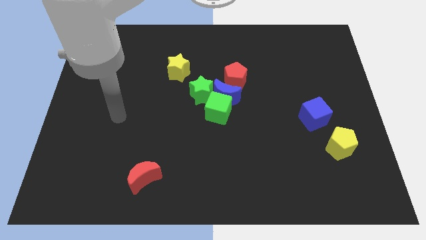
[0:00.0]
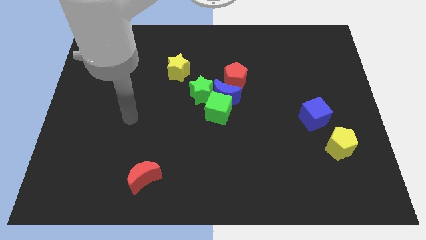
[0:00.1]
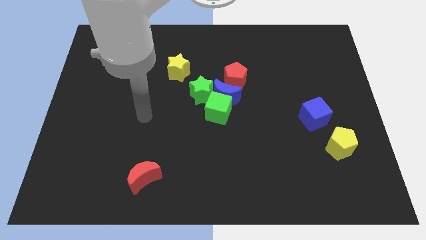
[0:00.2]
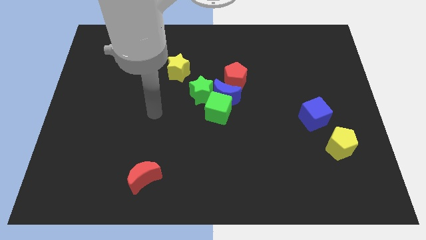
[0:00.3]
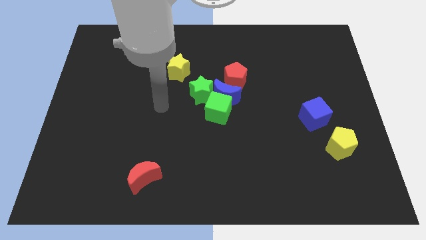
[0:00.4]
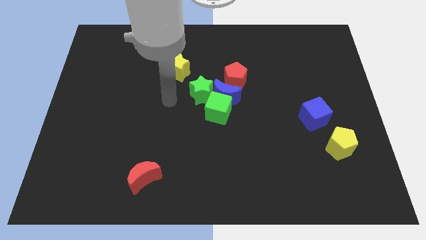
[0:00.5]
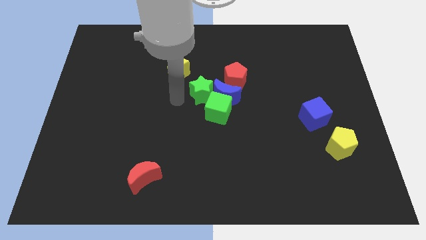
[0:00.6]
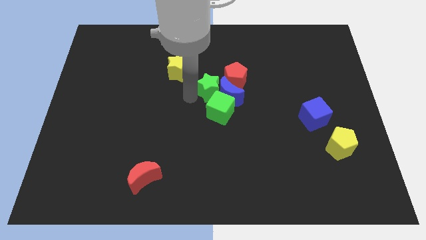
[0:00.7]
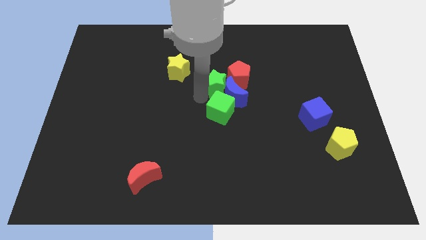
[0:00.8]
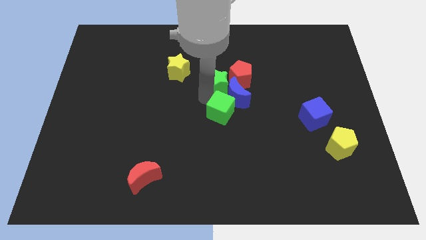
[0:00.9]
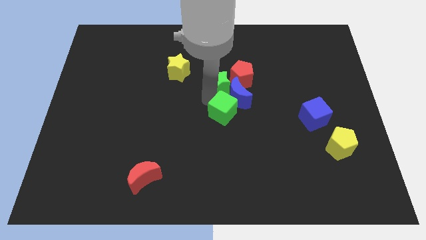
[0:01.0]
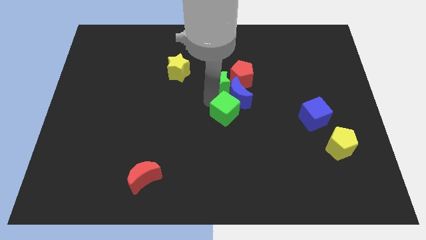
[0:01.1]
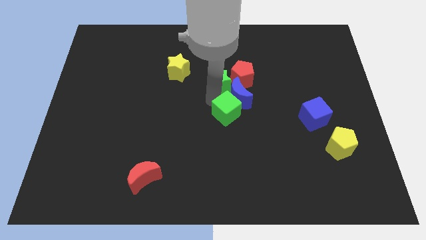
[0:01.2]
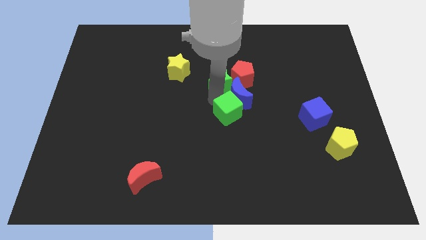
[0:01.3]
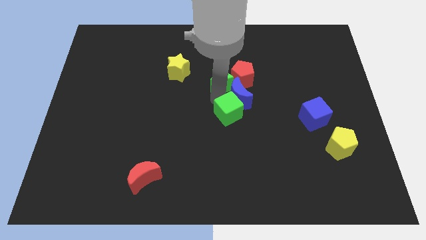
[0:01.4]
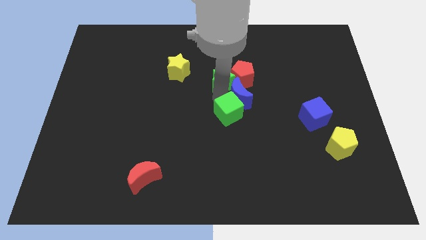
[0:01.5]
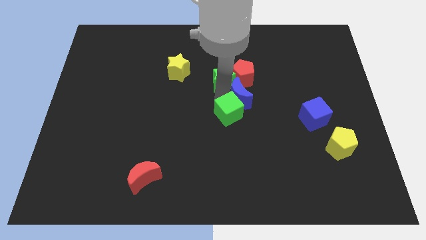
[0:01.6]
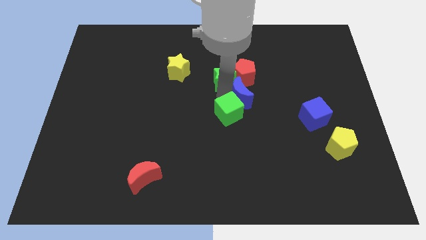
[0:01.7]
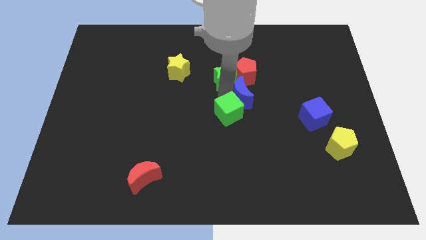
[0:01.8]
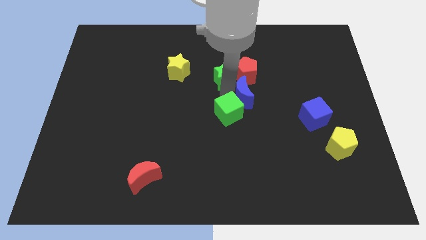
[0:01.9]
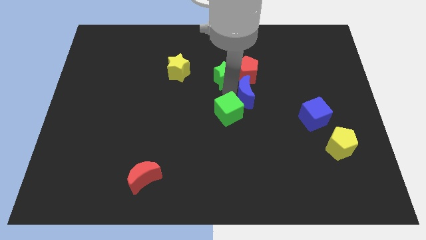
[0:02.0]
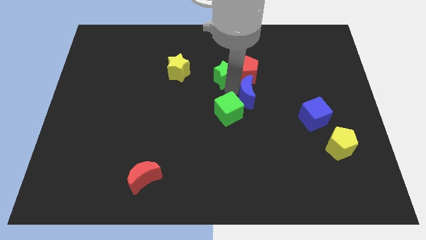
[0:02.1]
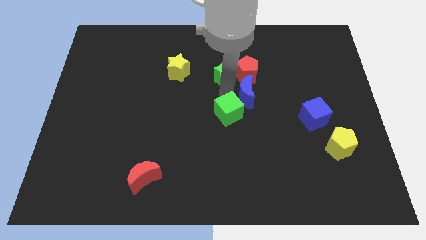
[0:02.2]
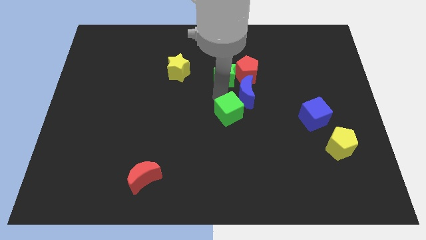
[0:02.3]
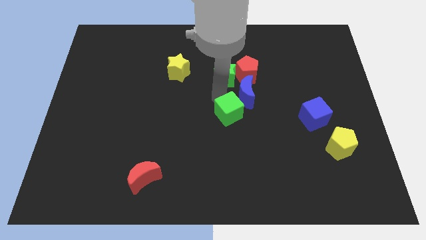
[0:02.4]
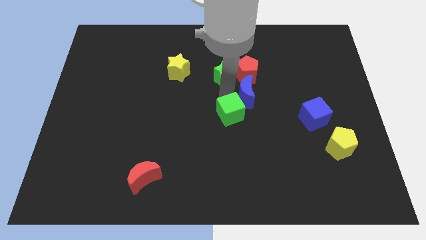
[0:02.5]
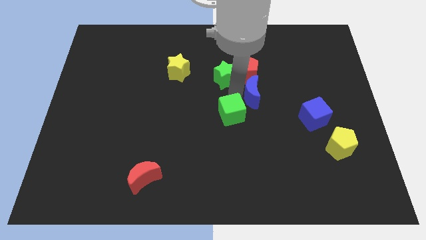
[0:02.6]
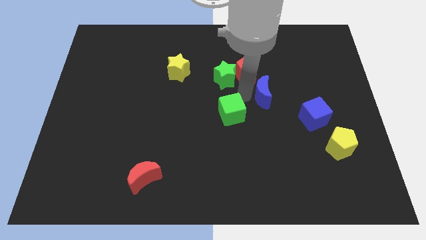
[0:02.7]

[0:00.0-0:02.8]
slightly slide the blue moon to the right

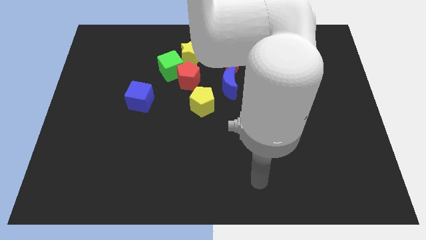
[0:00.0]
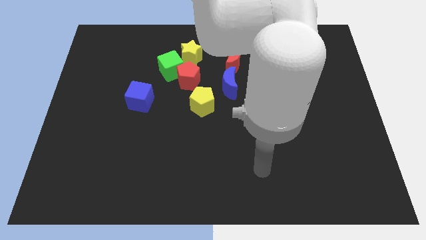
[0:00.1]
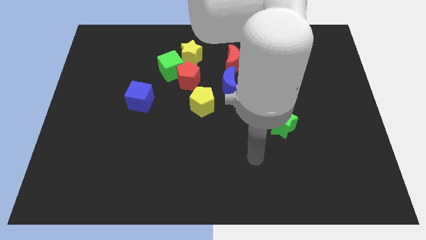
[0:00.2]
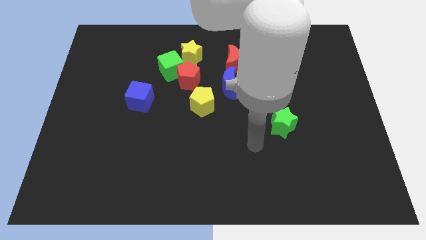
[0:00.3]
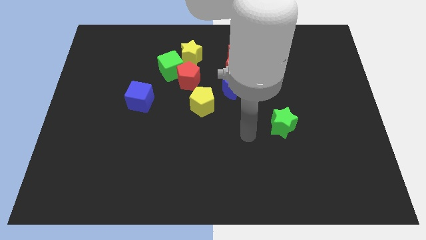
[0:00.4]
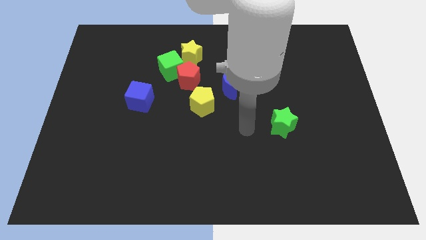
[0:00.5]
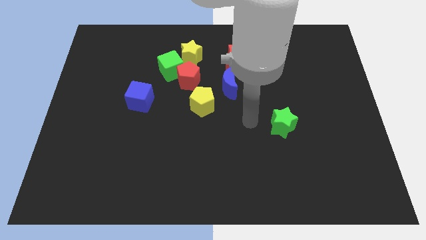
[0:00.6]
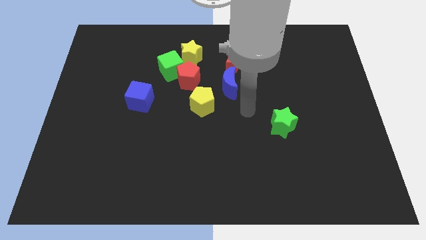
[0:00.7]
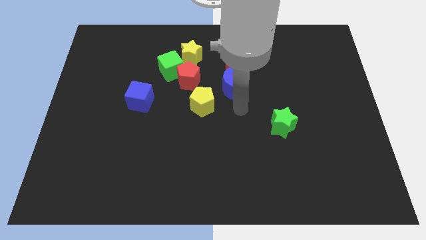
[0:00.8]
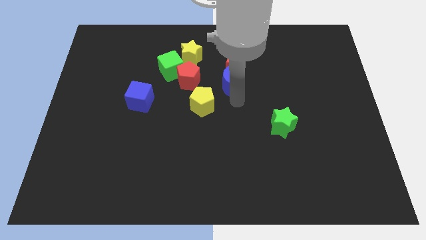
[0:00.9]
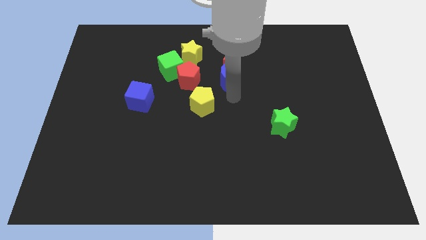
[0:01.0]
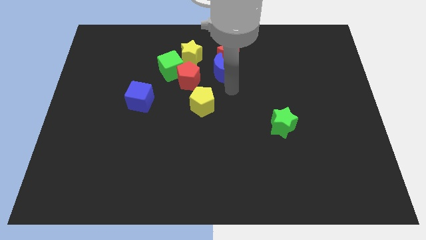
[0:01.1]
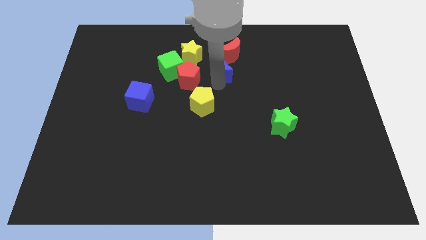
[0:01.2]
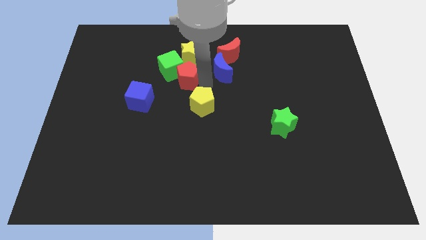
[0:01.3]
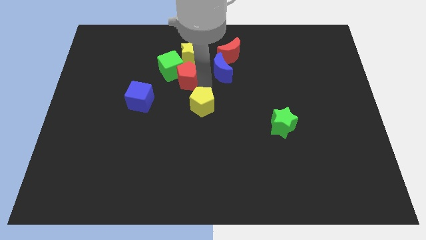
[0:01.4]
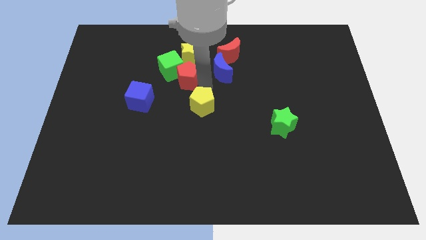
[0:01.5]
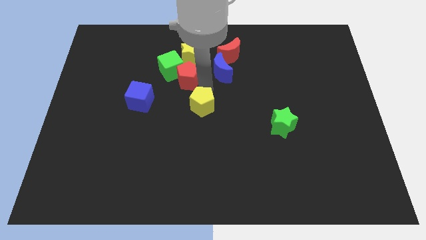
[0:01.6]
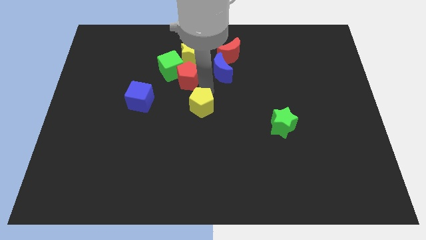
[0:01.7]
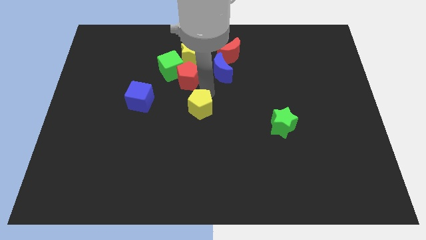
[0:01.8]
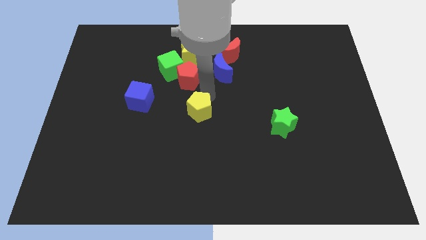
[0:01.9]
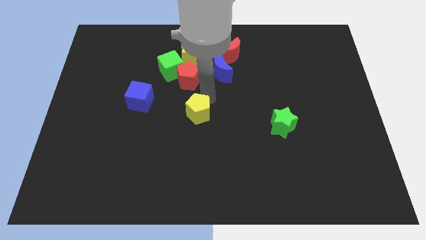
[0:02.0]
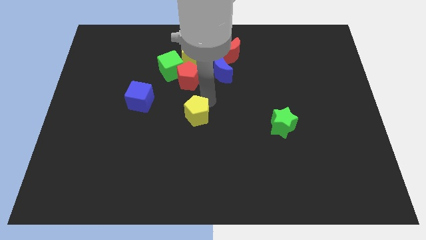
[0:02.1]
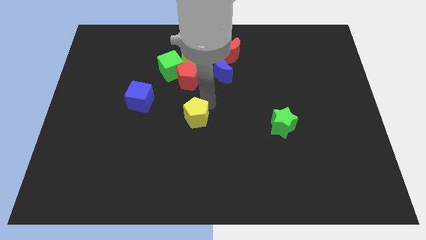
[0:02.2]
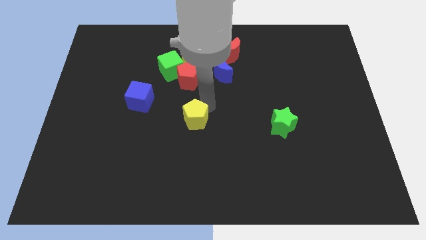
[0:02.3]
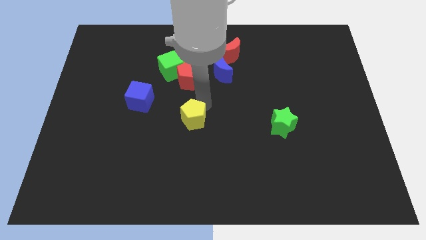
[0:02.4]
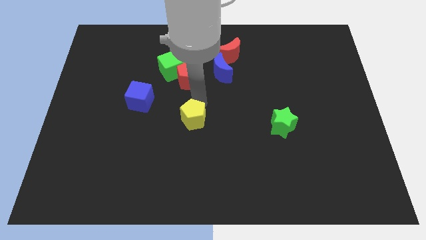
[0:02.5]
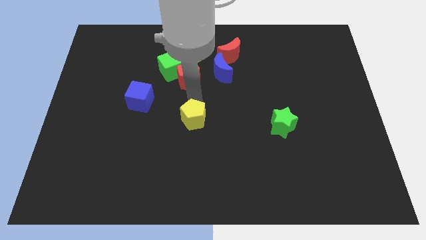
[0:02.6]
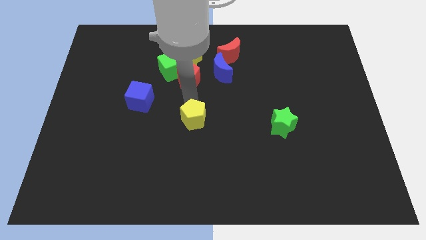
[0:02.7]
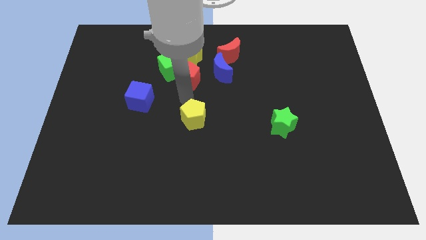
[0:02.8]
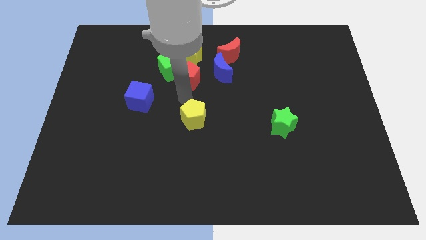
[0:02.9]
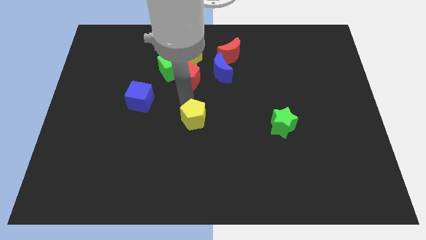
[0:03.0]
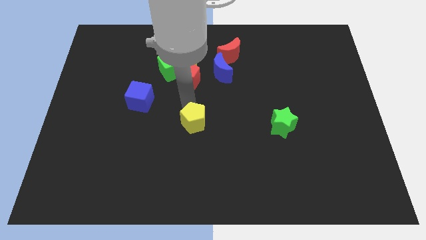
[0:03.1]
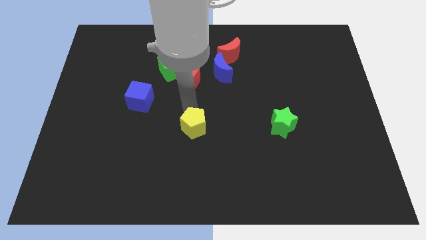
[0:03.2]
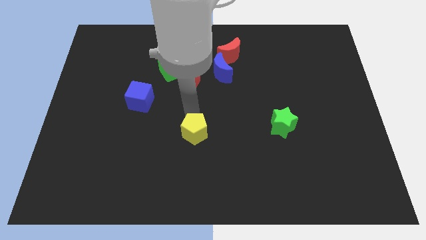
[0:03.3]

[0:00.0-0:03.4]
slide the yellow pentagon a bit downwards

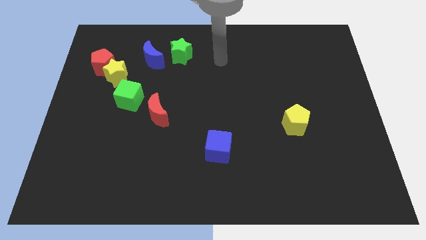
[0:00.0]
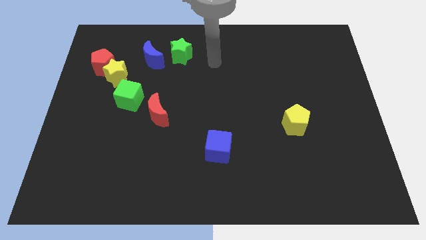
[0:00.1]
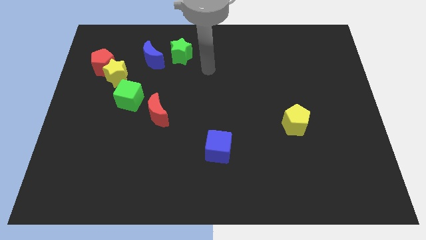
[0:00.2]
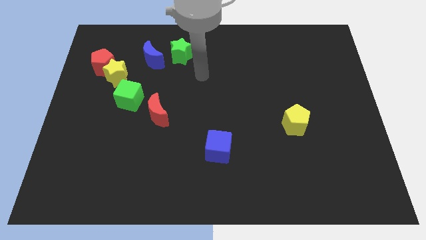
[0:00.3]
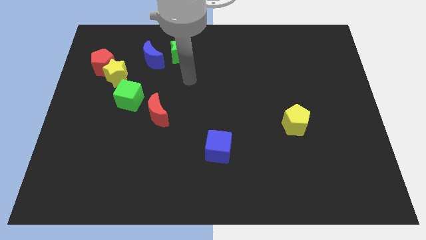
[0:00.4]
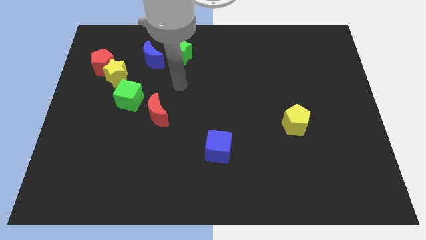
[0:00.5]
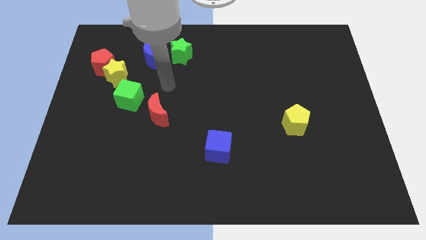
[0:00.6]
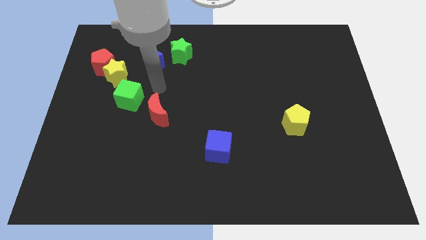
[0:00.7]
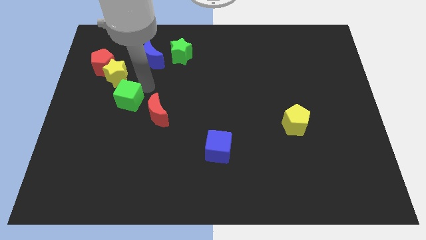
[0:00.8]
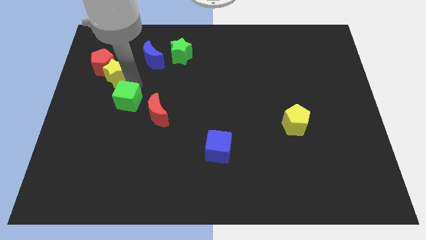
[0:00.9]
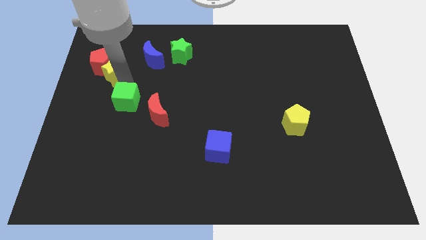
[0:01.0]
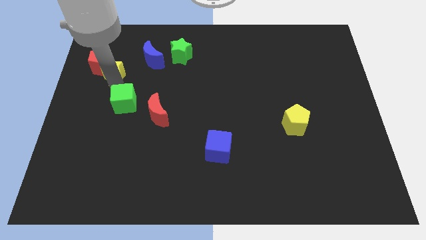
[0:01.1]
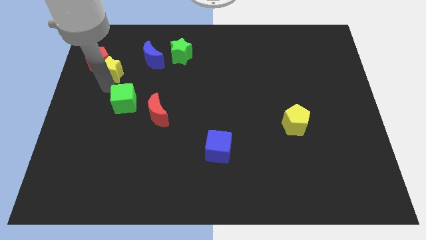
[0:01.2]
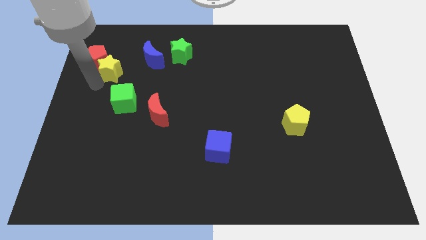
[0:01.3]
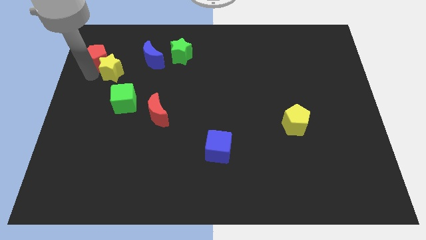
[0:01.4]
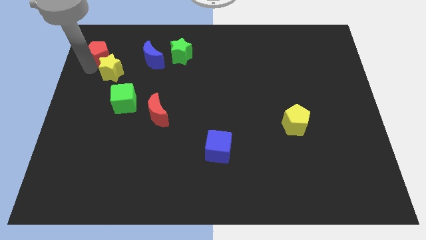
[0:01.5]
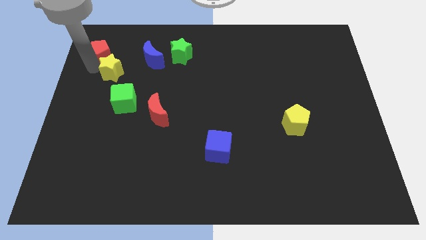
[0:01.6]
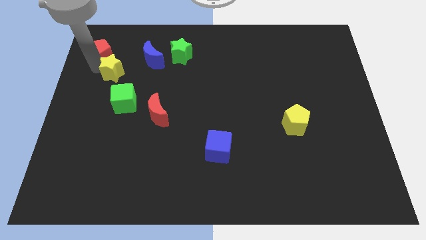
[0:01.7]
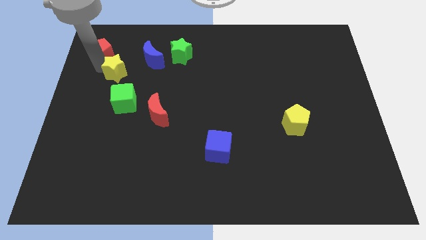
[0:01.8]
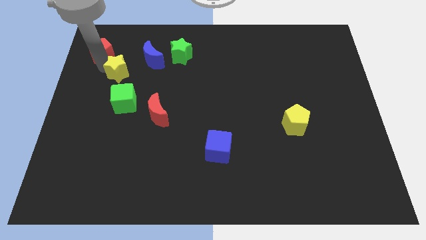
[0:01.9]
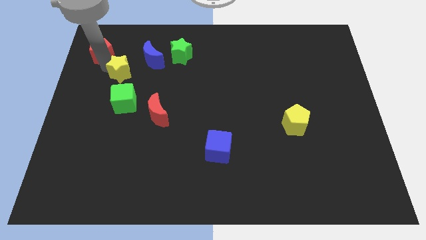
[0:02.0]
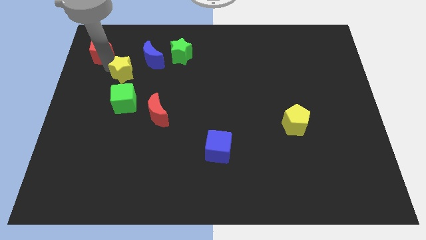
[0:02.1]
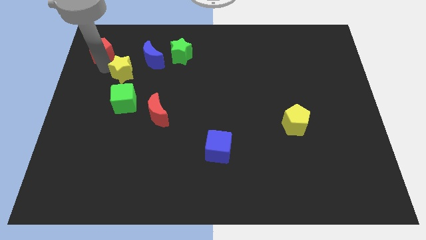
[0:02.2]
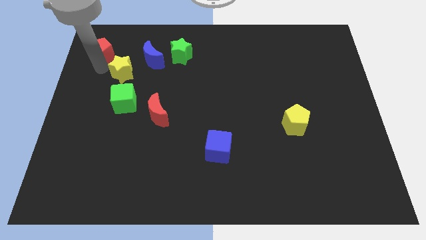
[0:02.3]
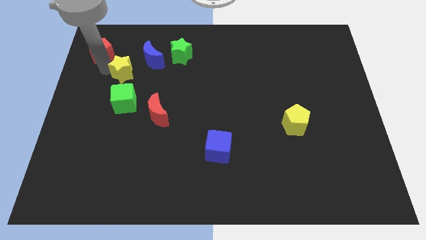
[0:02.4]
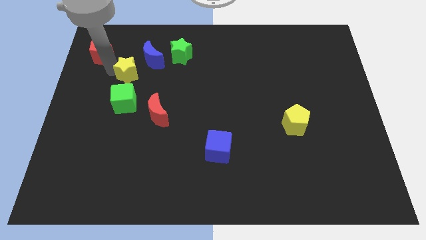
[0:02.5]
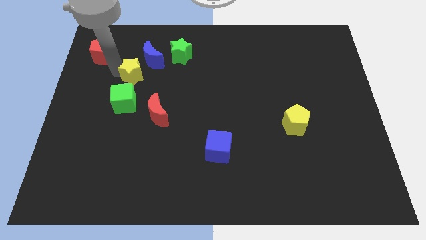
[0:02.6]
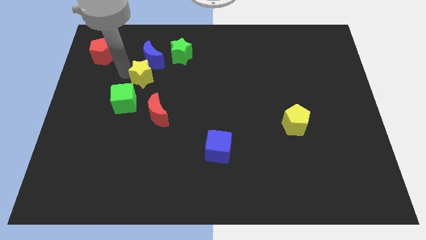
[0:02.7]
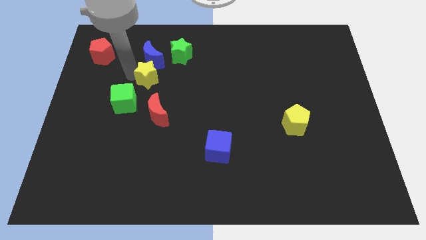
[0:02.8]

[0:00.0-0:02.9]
slide the yellow star a little right
